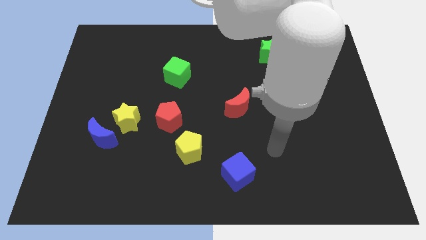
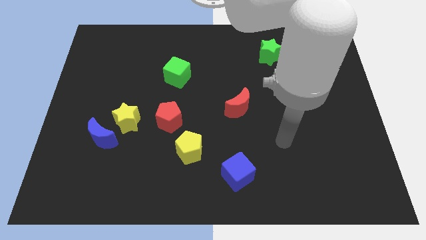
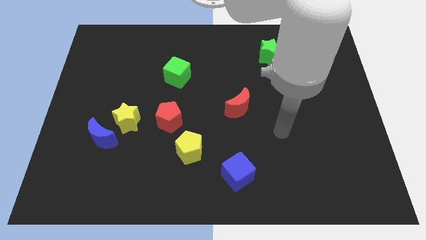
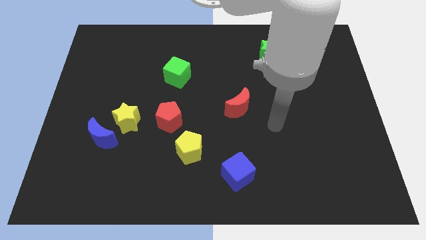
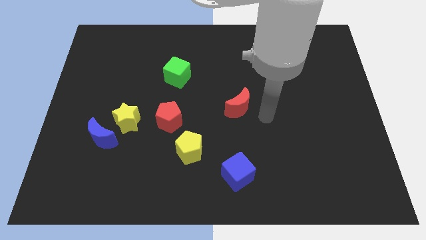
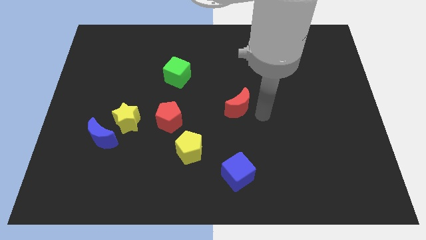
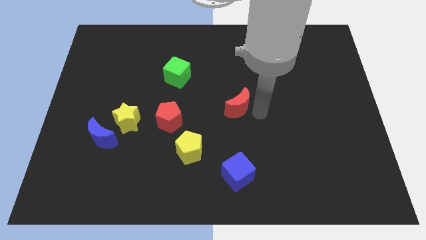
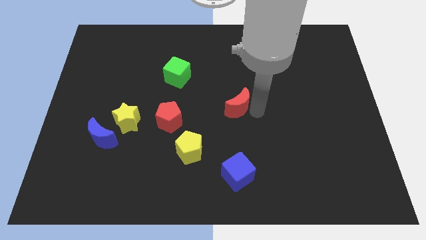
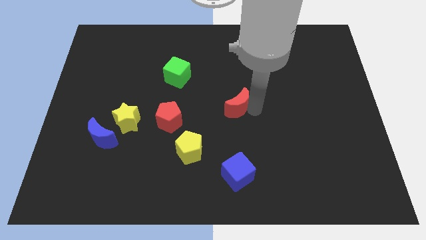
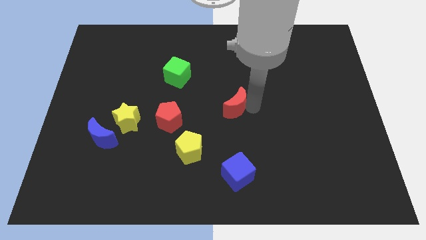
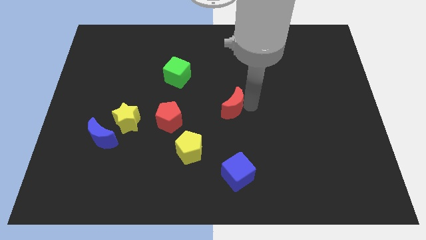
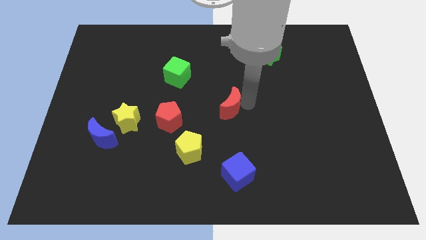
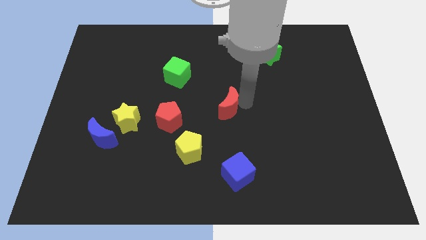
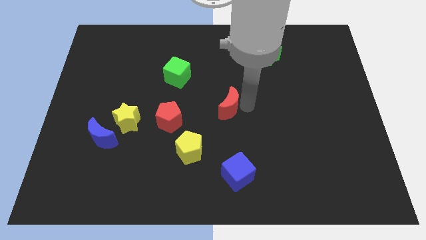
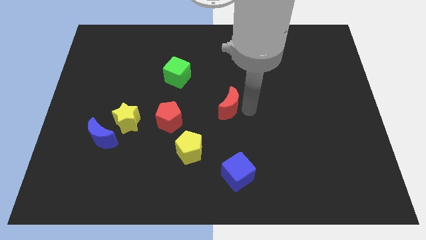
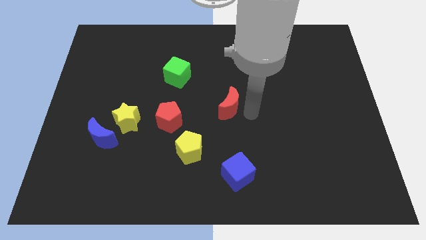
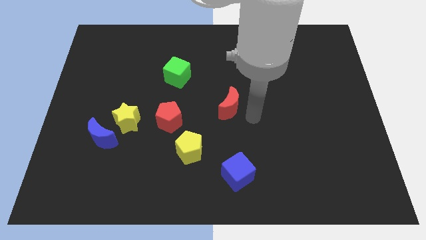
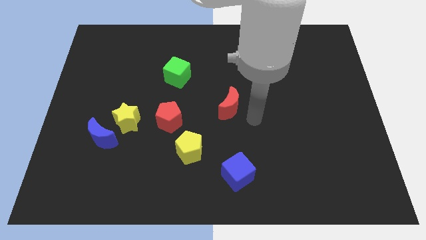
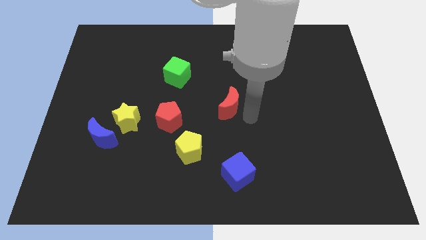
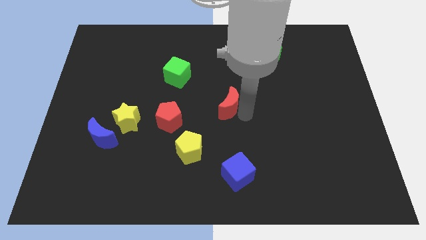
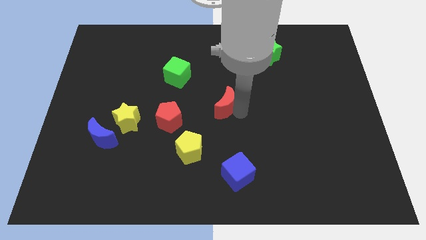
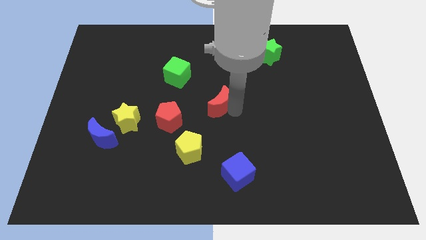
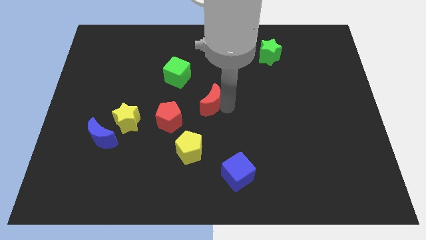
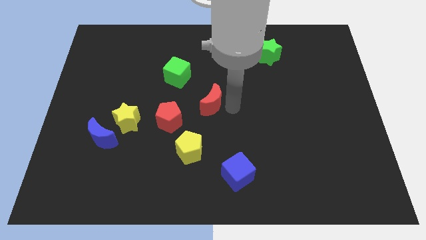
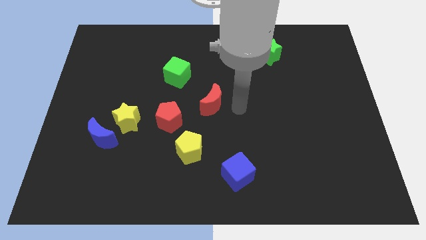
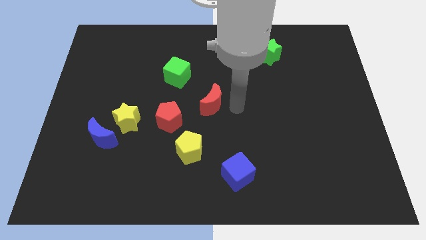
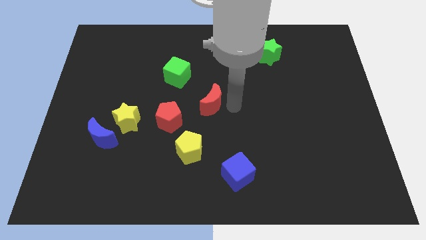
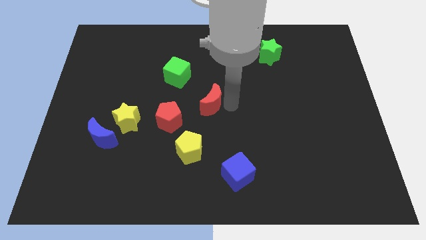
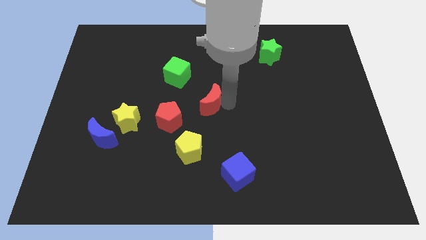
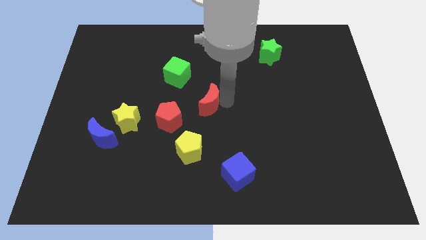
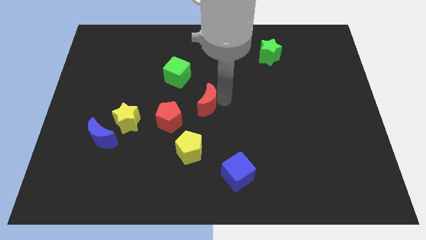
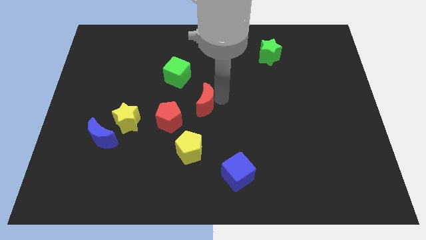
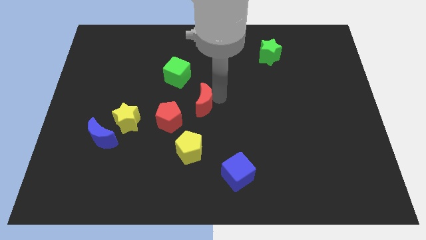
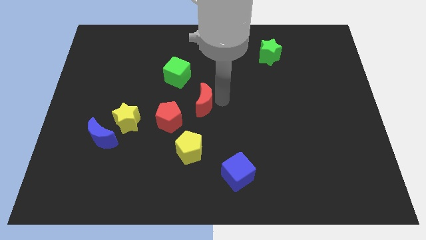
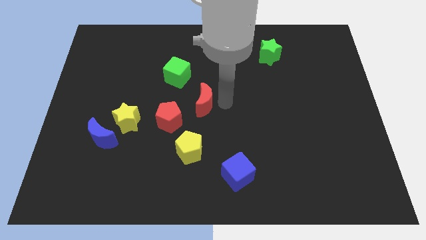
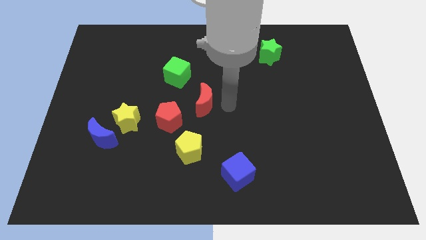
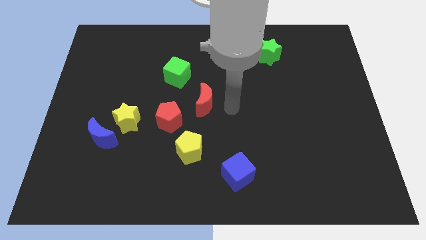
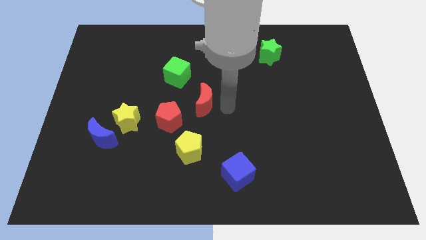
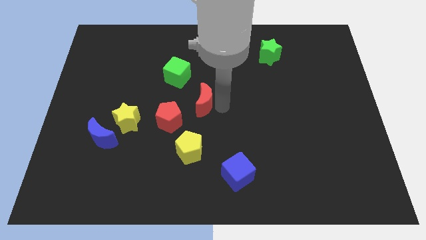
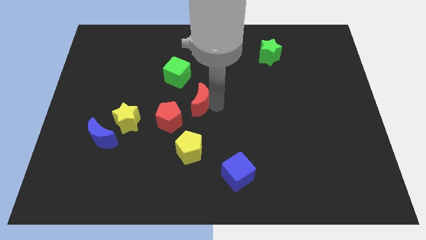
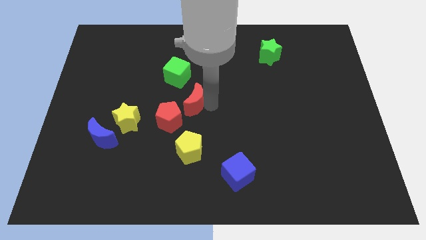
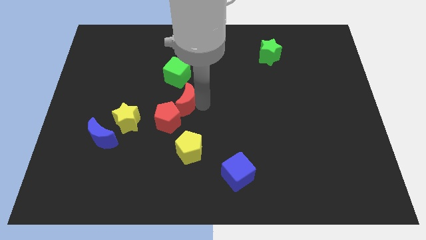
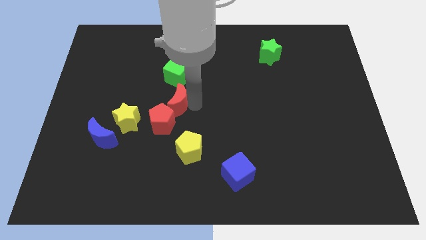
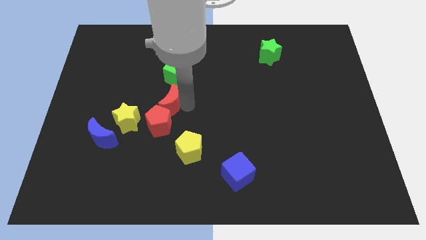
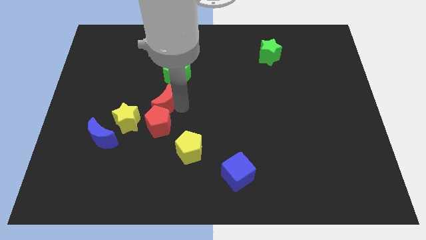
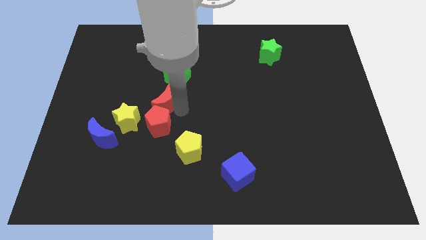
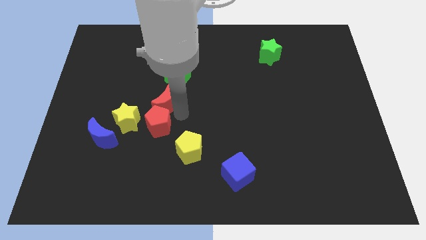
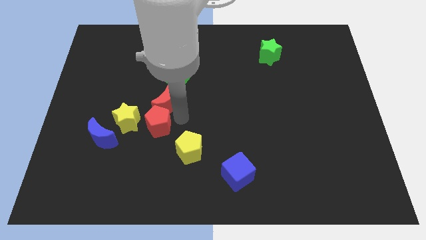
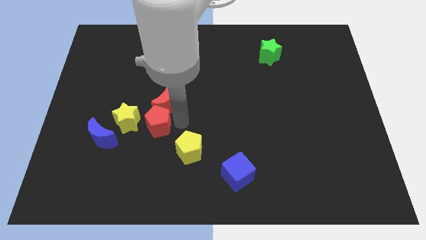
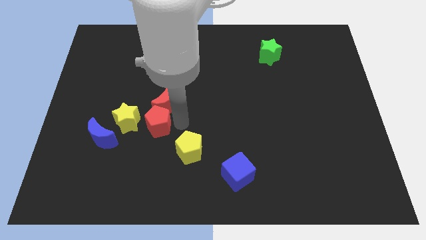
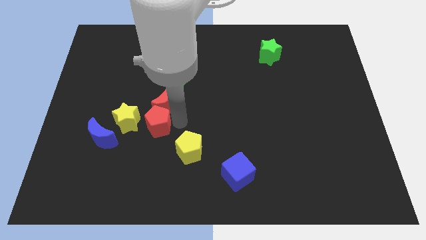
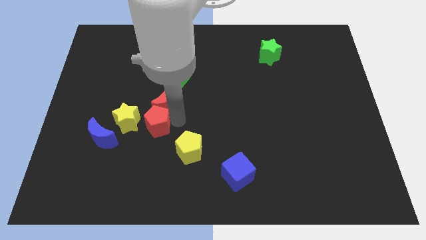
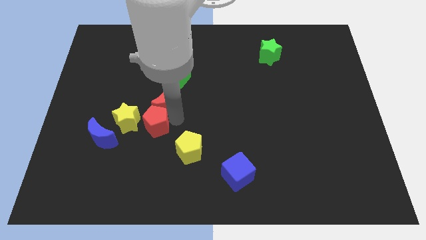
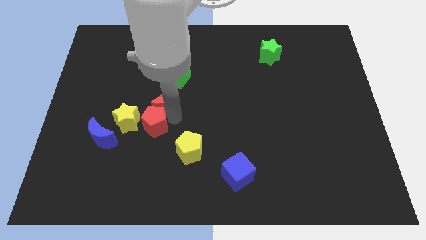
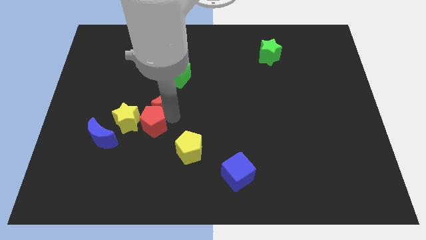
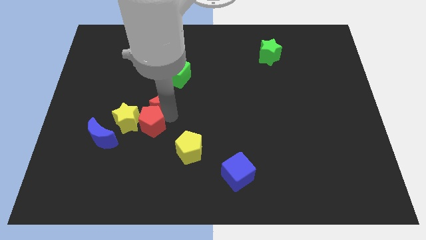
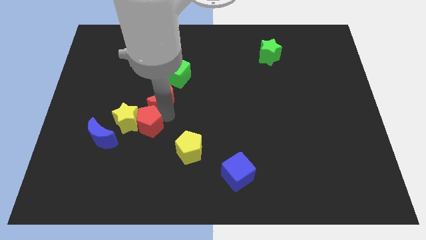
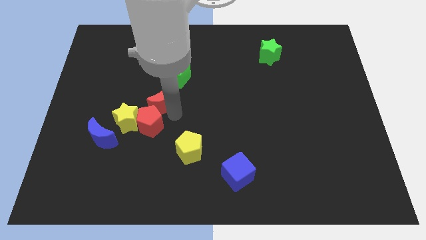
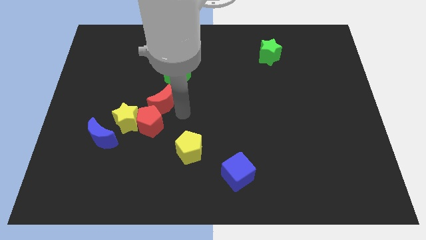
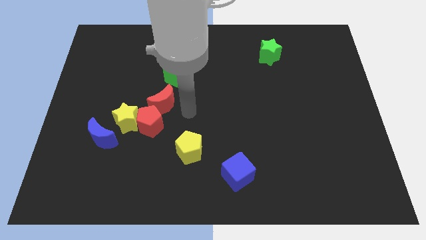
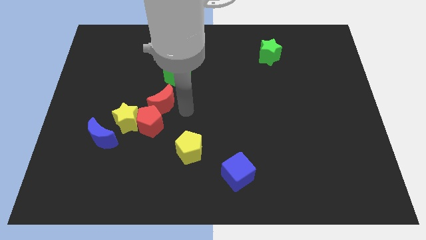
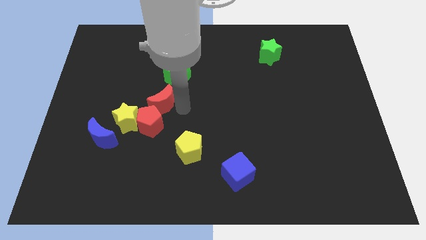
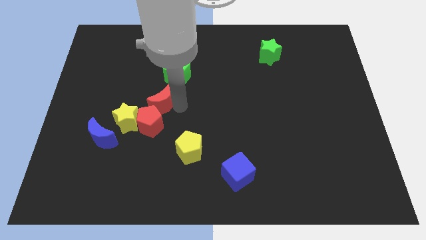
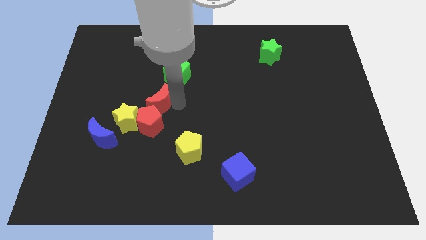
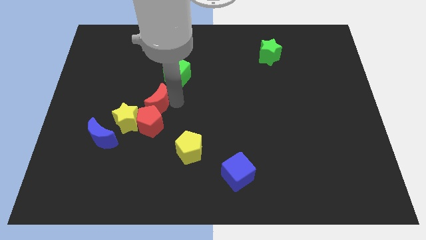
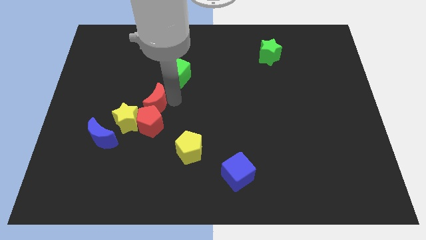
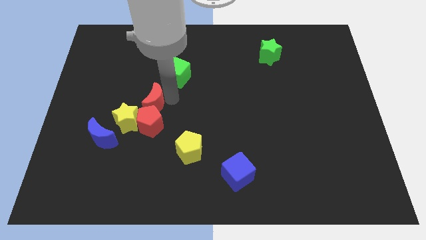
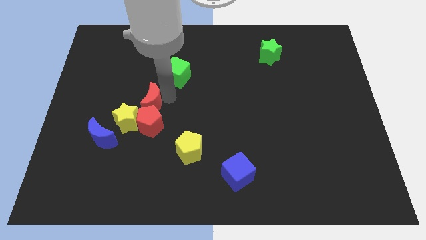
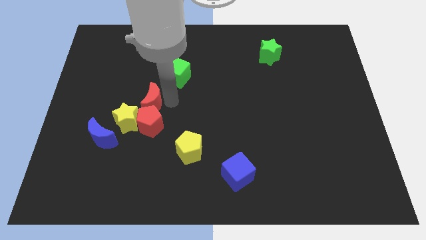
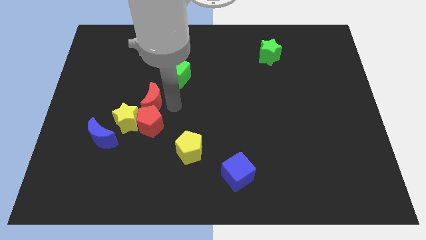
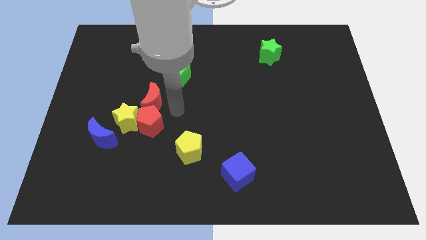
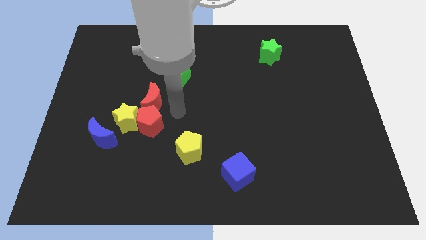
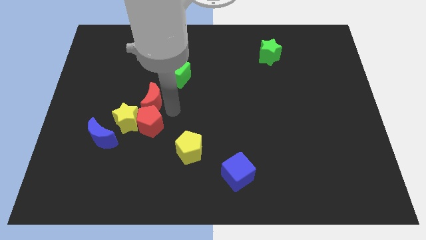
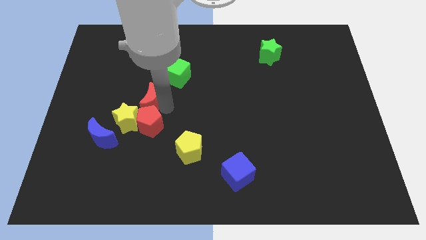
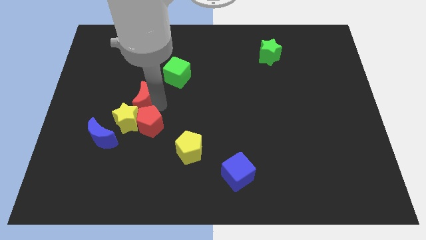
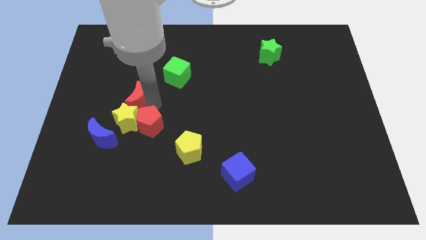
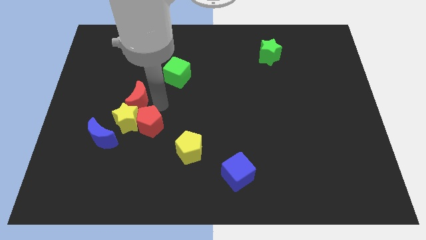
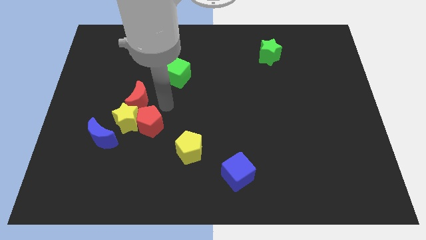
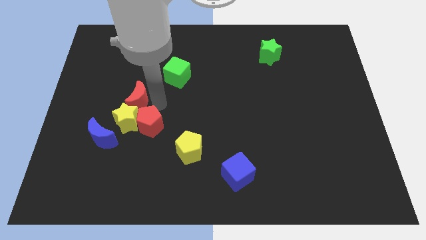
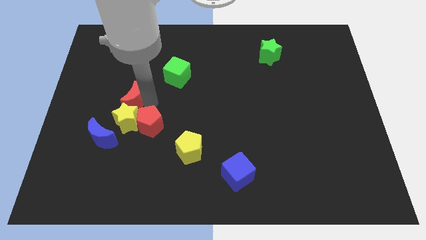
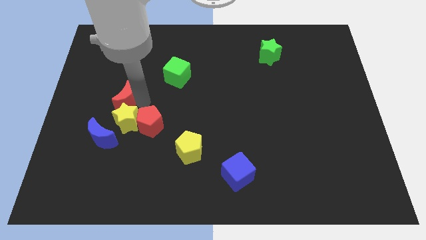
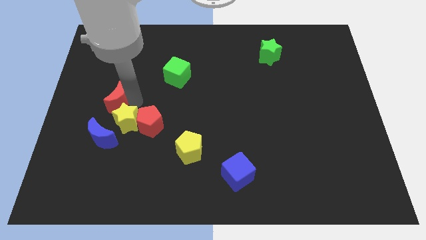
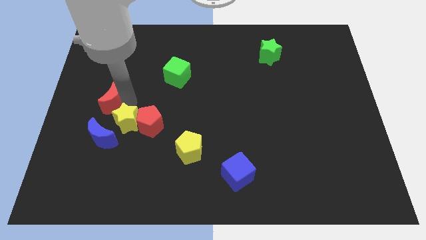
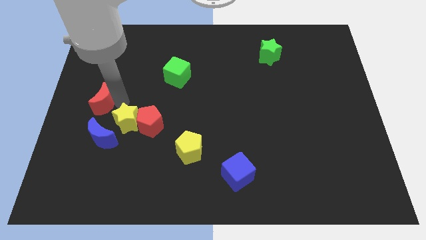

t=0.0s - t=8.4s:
push the red moon to the left side of the board
